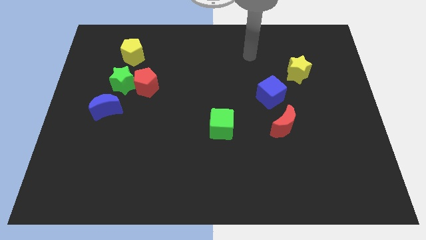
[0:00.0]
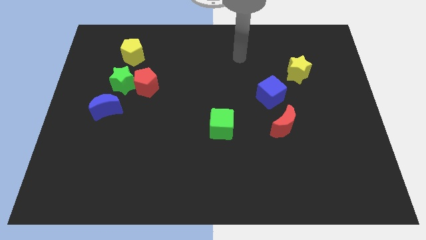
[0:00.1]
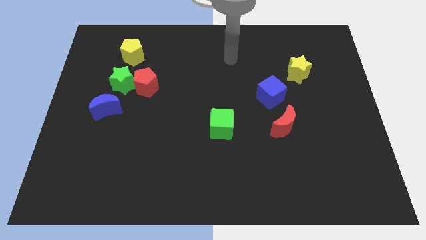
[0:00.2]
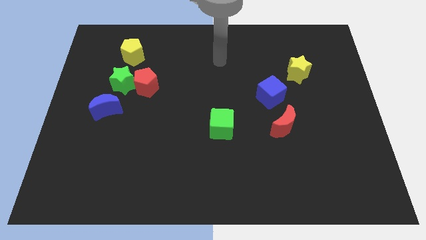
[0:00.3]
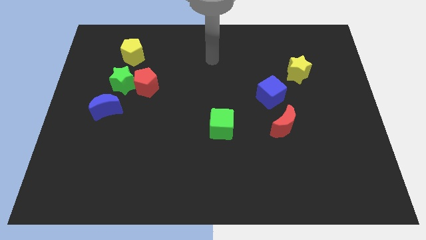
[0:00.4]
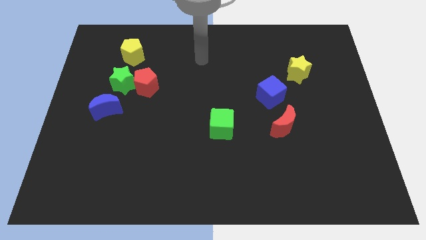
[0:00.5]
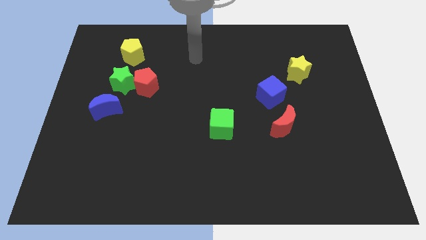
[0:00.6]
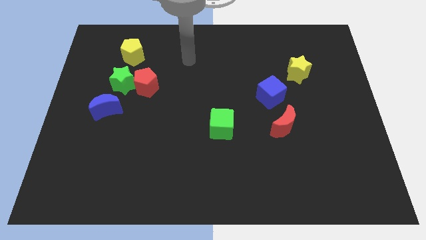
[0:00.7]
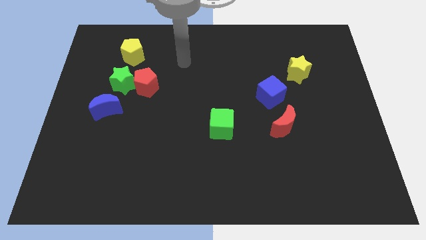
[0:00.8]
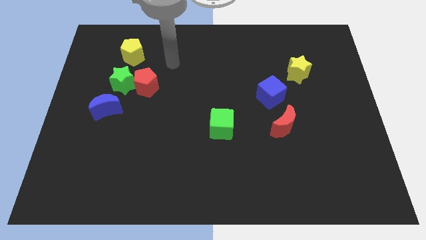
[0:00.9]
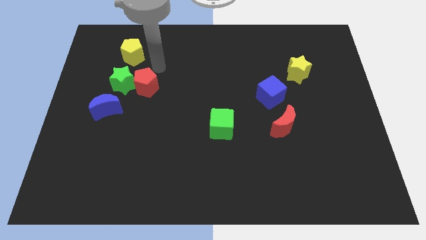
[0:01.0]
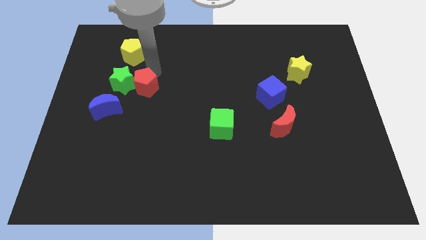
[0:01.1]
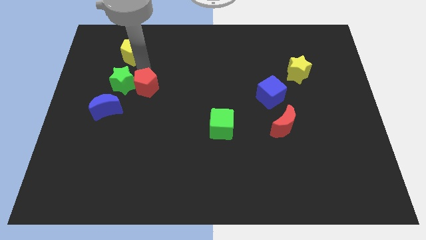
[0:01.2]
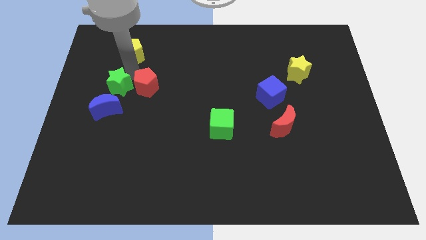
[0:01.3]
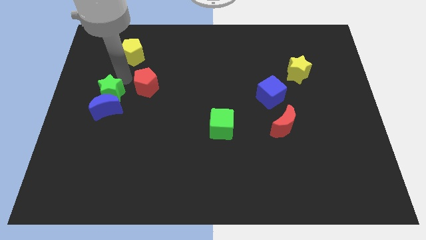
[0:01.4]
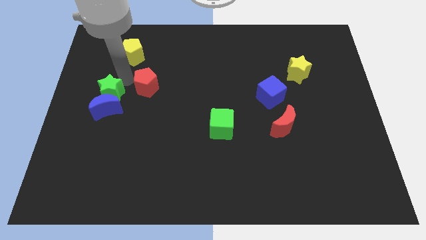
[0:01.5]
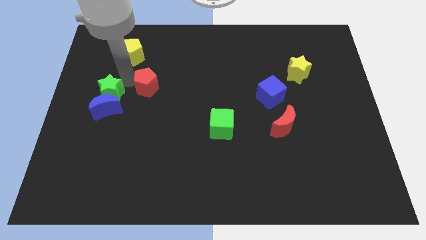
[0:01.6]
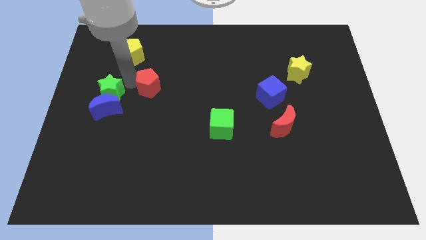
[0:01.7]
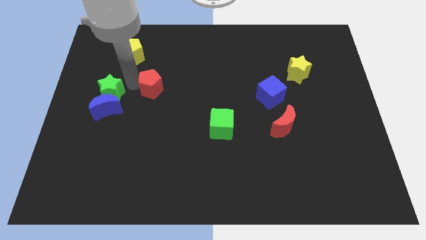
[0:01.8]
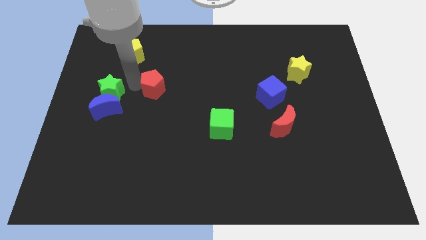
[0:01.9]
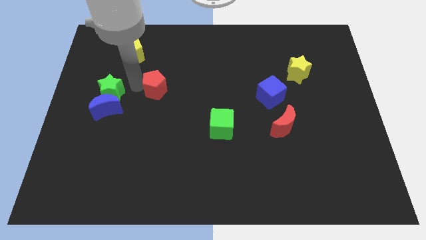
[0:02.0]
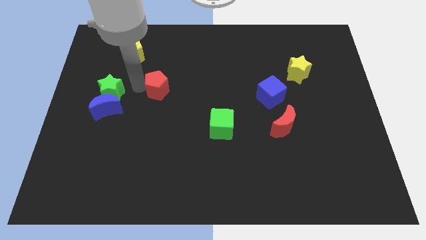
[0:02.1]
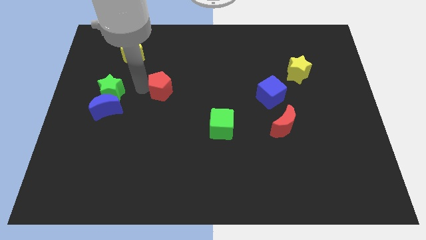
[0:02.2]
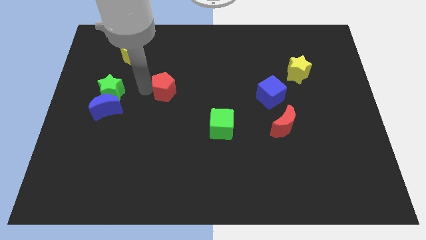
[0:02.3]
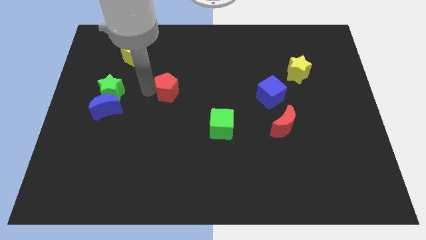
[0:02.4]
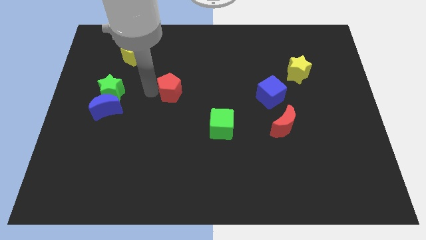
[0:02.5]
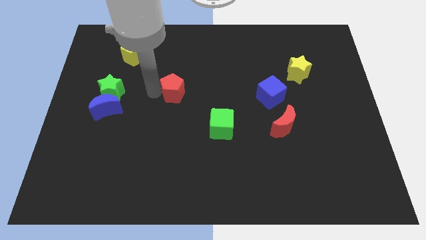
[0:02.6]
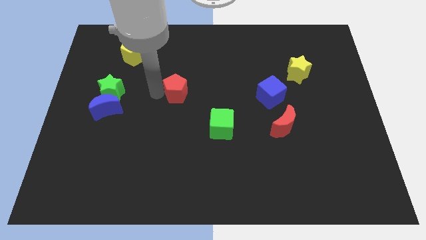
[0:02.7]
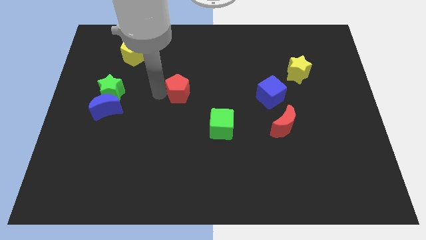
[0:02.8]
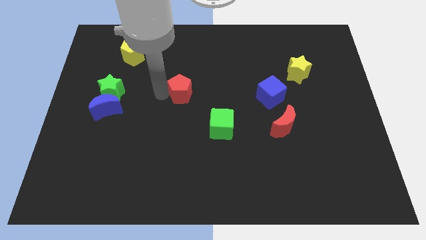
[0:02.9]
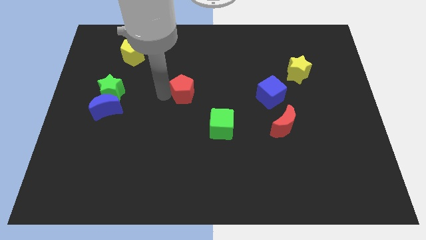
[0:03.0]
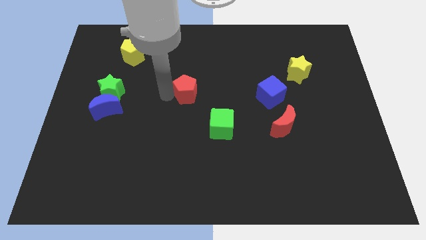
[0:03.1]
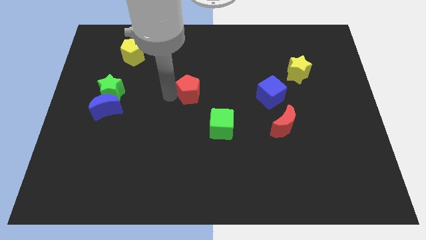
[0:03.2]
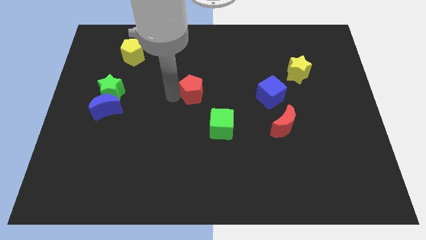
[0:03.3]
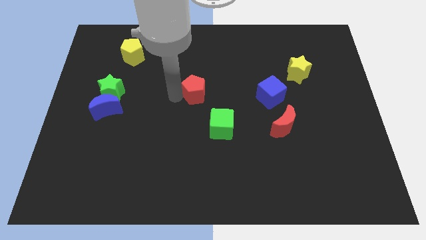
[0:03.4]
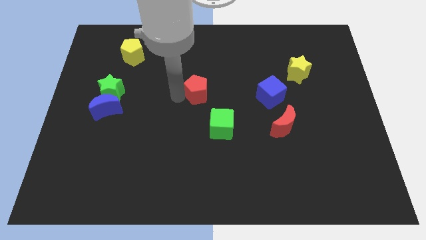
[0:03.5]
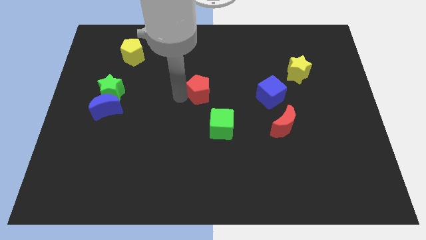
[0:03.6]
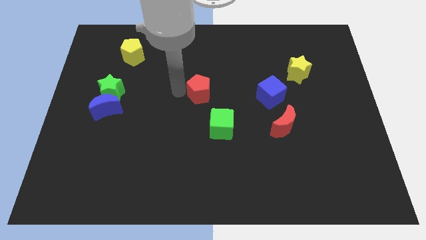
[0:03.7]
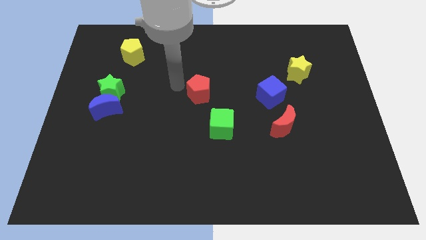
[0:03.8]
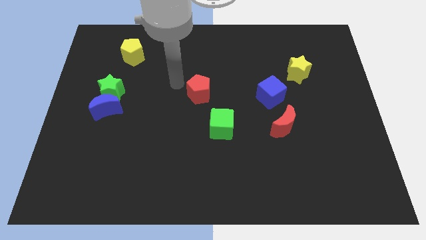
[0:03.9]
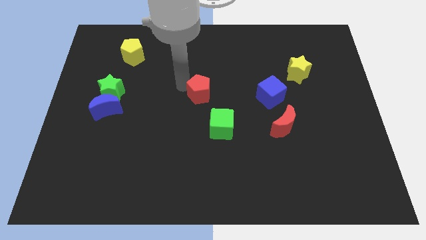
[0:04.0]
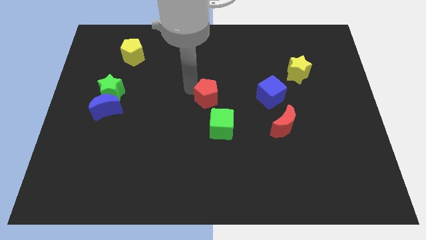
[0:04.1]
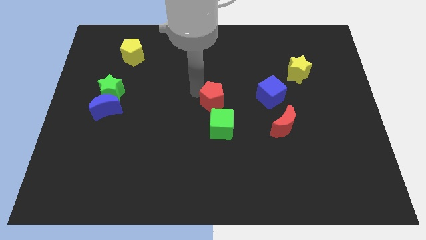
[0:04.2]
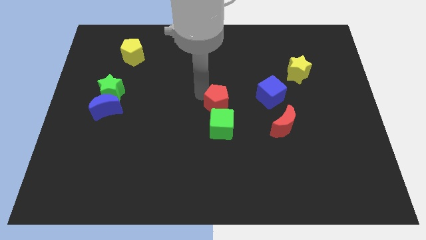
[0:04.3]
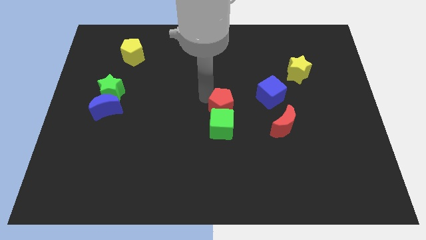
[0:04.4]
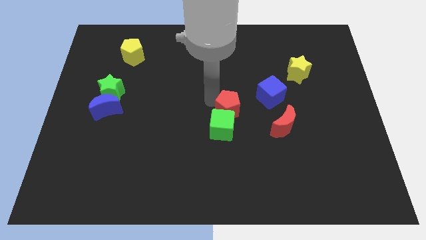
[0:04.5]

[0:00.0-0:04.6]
slide the red pentagon diagonally down and to the left of the blue cube

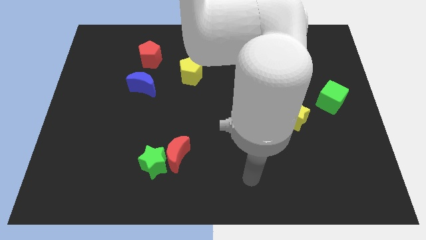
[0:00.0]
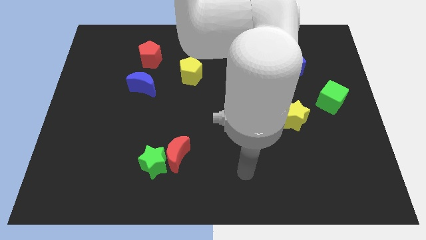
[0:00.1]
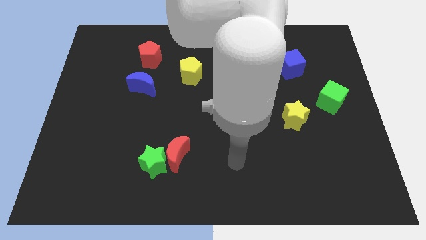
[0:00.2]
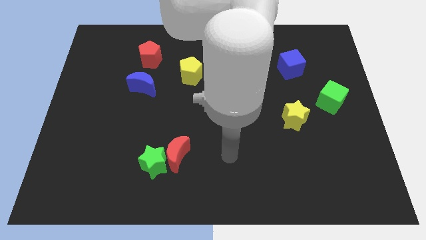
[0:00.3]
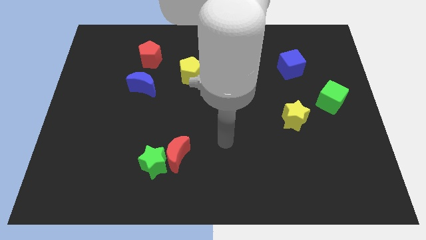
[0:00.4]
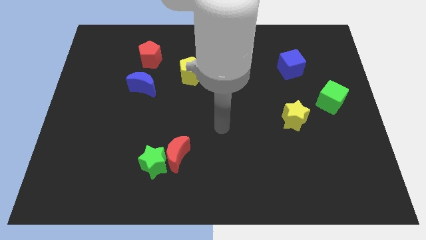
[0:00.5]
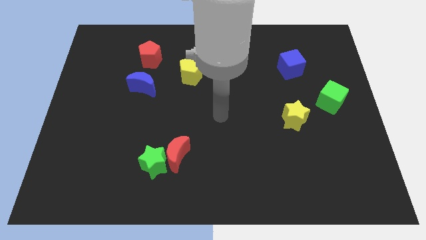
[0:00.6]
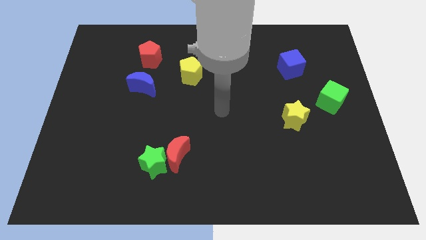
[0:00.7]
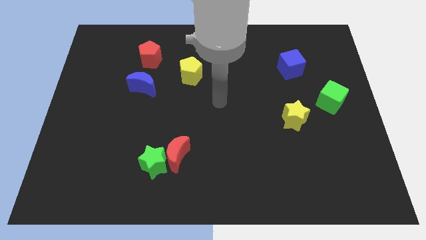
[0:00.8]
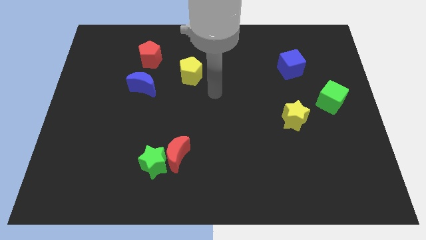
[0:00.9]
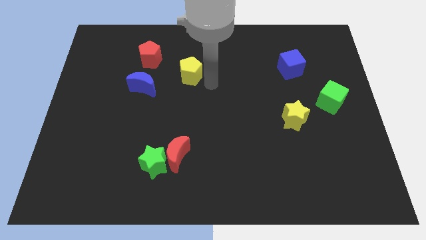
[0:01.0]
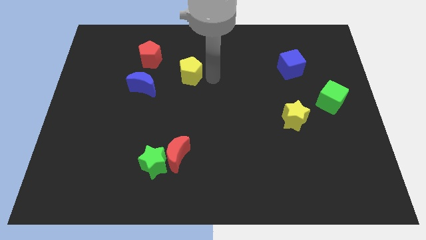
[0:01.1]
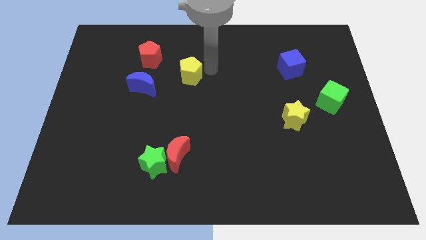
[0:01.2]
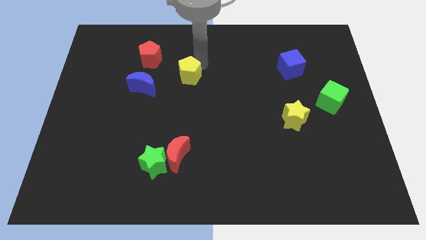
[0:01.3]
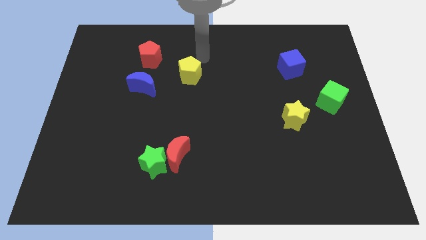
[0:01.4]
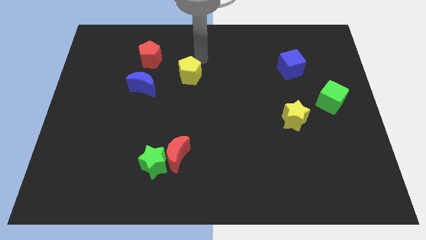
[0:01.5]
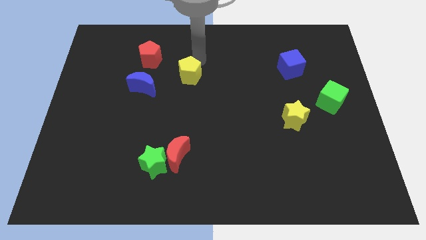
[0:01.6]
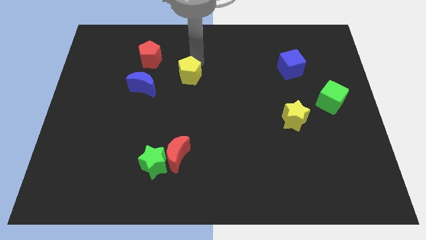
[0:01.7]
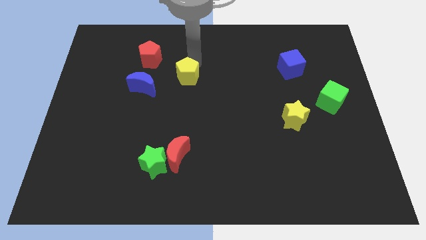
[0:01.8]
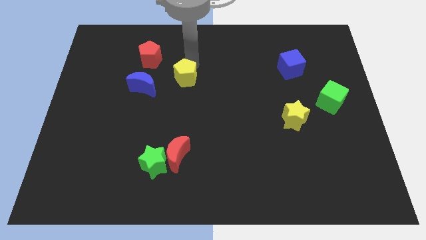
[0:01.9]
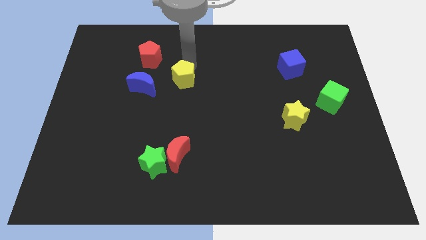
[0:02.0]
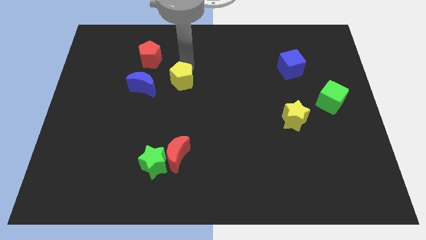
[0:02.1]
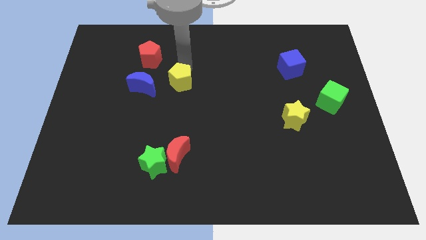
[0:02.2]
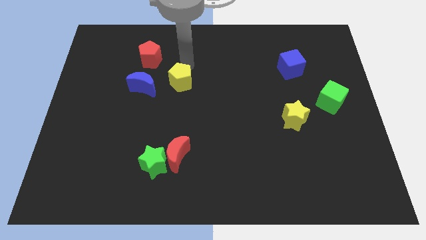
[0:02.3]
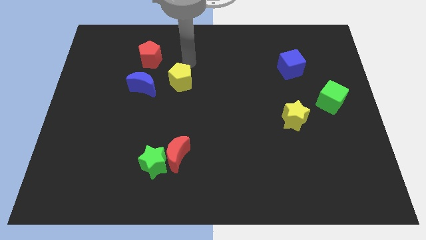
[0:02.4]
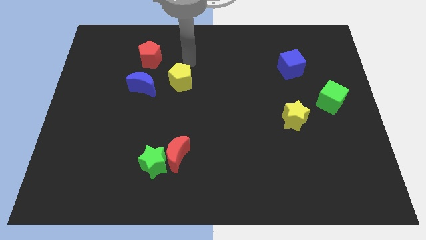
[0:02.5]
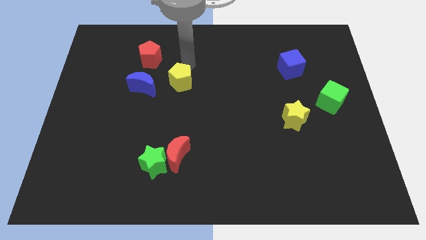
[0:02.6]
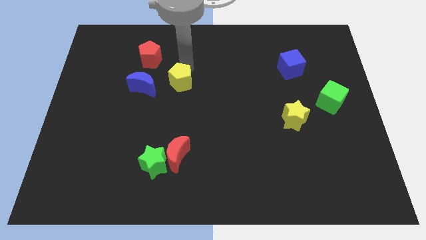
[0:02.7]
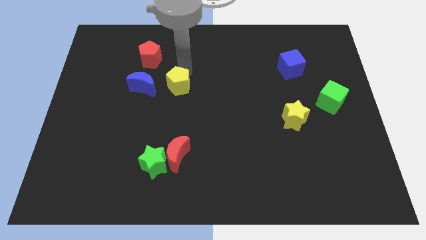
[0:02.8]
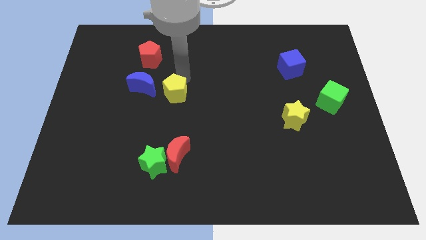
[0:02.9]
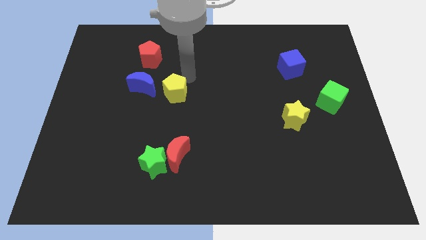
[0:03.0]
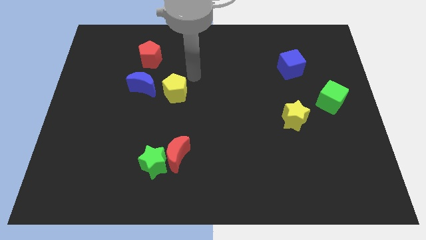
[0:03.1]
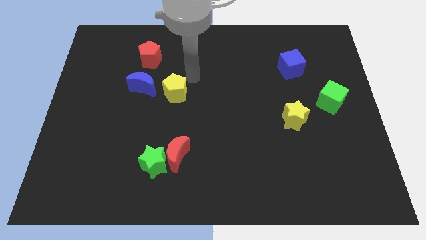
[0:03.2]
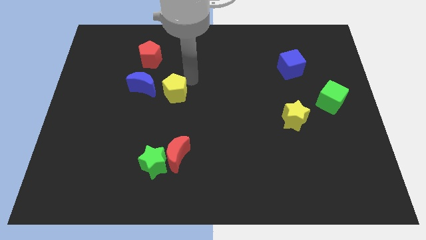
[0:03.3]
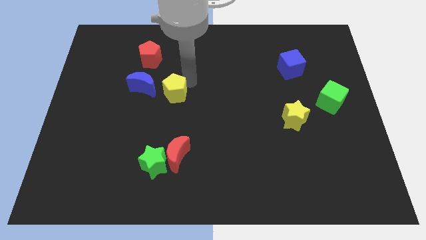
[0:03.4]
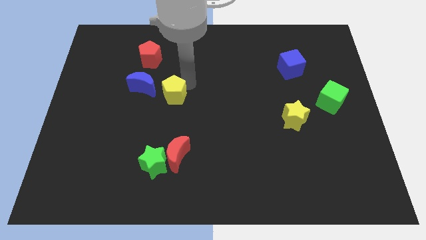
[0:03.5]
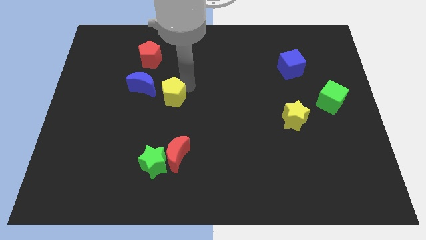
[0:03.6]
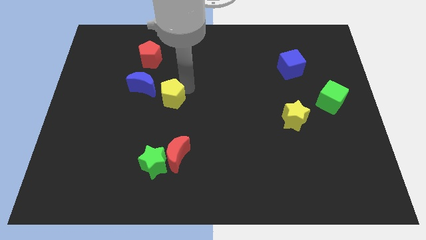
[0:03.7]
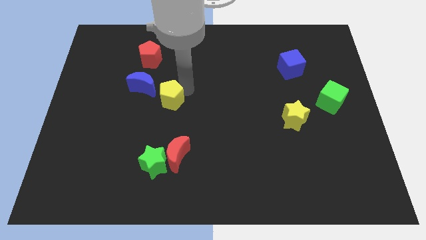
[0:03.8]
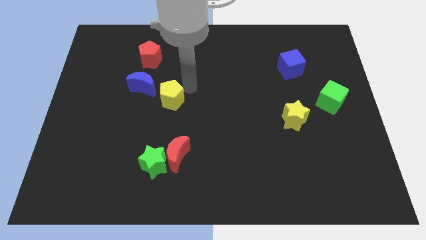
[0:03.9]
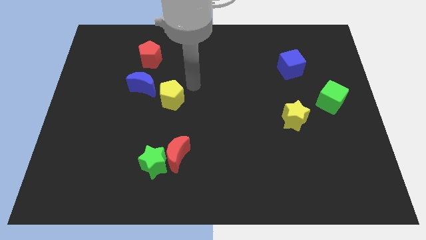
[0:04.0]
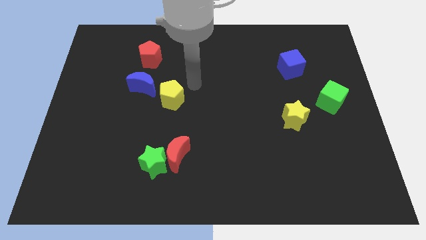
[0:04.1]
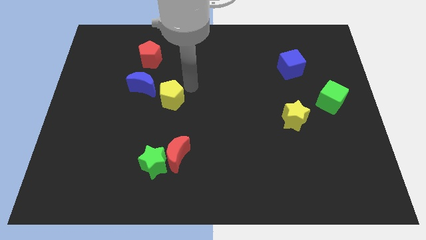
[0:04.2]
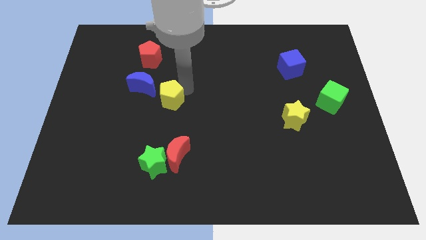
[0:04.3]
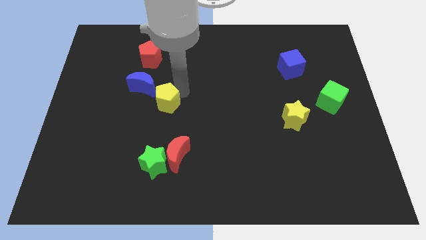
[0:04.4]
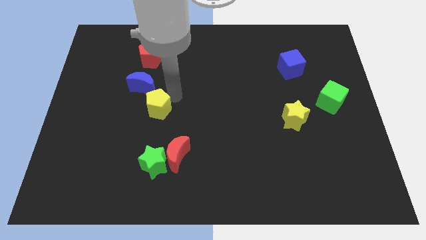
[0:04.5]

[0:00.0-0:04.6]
slide the yellow pentagon to the bottom of the blue moon
